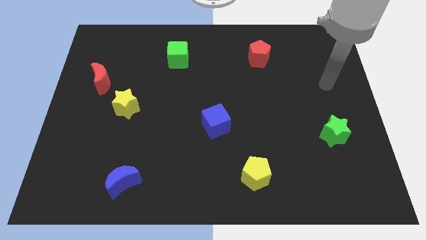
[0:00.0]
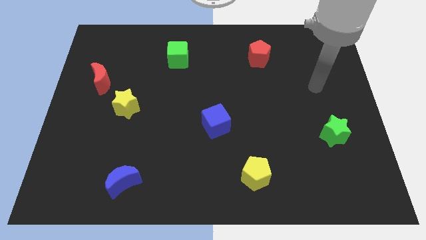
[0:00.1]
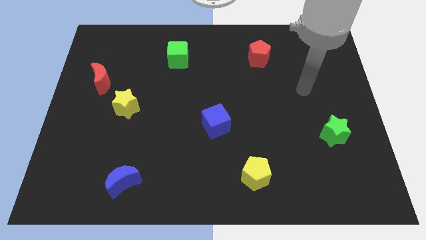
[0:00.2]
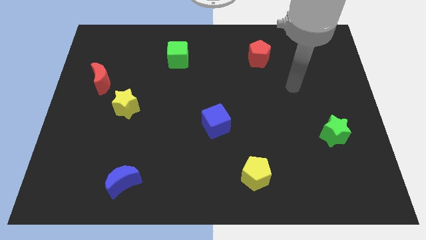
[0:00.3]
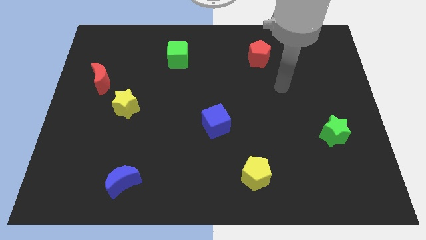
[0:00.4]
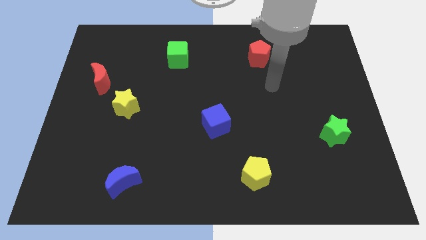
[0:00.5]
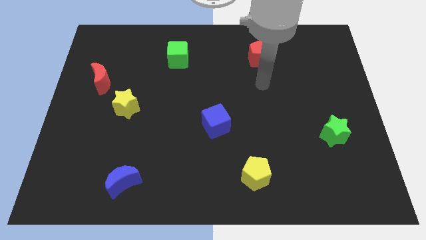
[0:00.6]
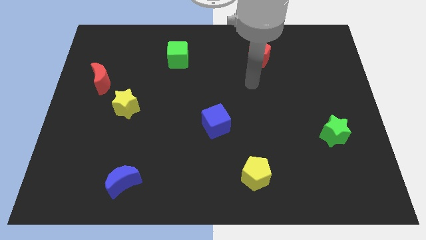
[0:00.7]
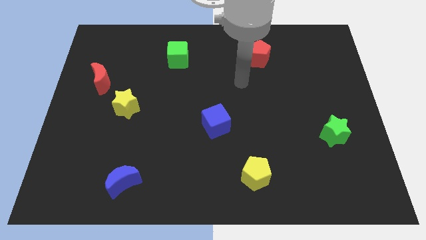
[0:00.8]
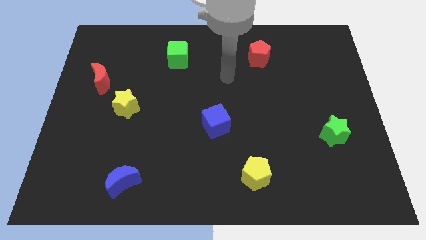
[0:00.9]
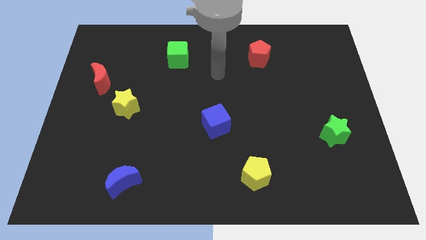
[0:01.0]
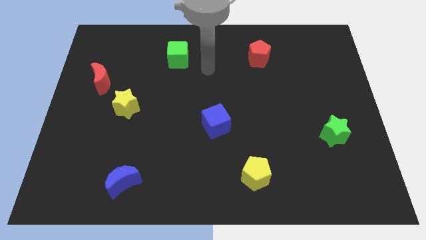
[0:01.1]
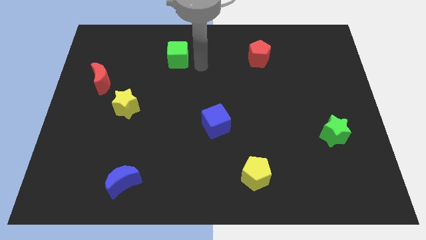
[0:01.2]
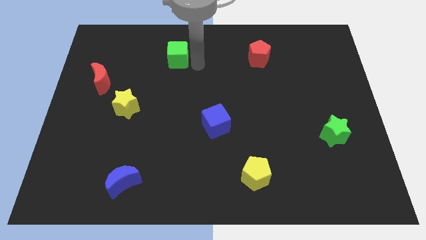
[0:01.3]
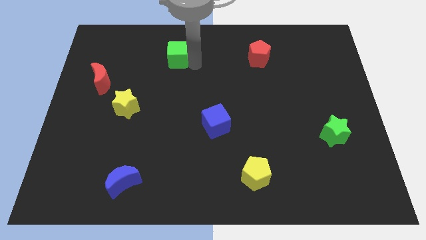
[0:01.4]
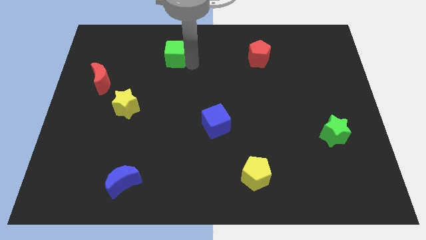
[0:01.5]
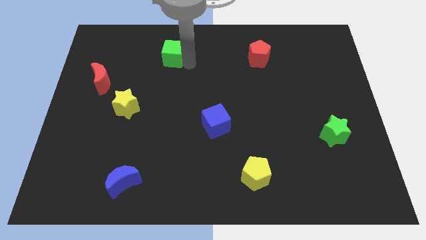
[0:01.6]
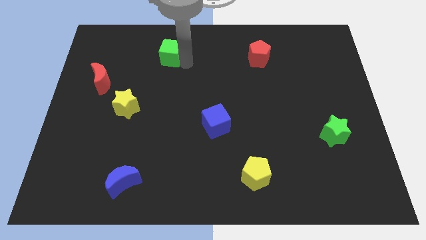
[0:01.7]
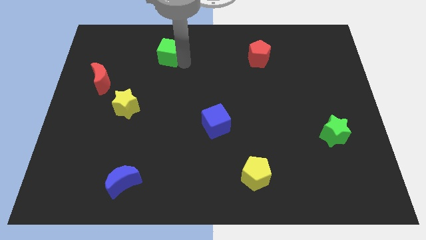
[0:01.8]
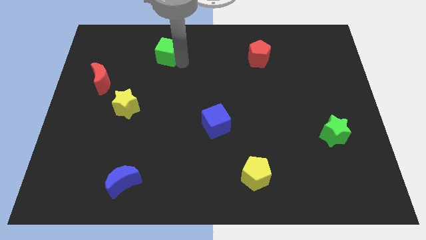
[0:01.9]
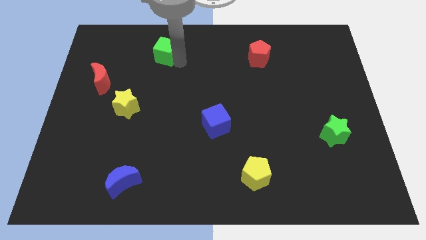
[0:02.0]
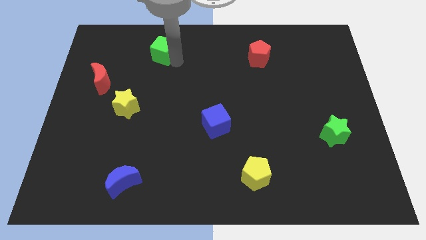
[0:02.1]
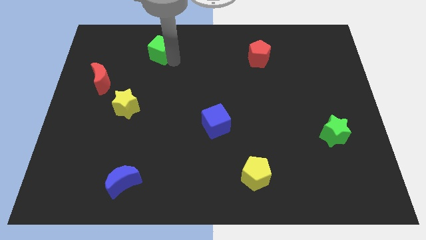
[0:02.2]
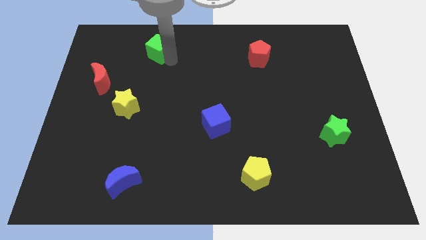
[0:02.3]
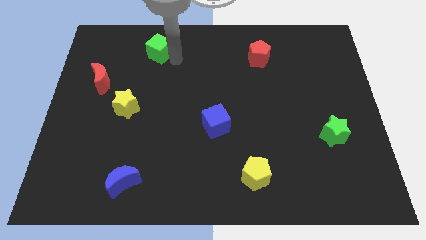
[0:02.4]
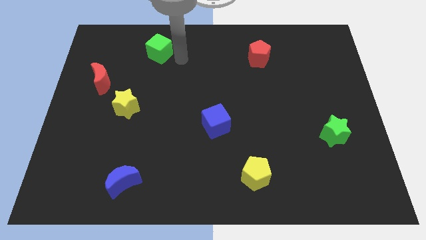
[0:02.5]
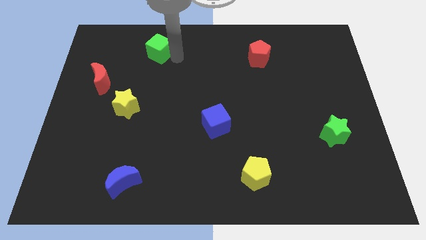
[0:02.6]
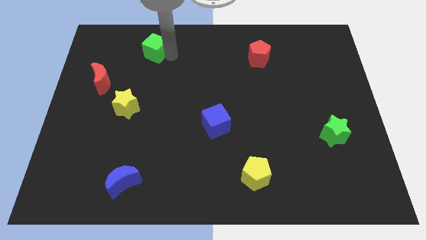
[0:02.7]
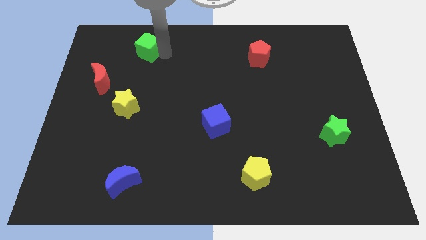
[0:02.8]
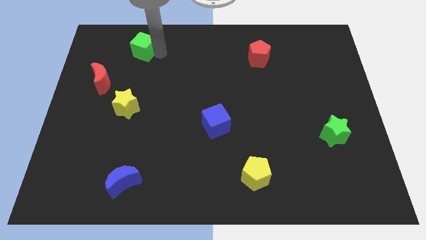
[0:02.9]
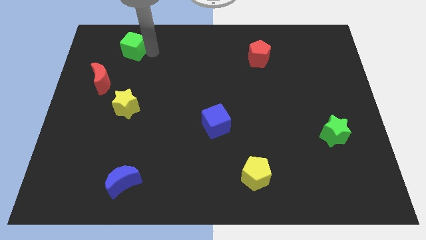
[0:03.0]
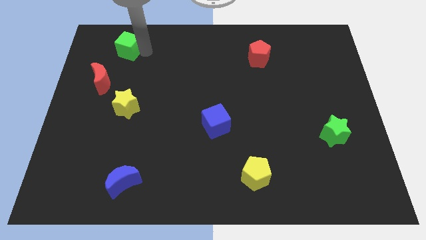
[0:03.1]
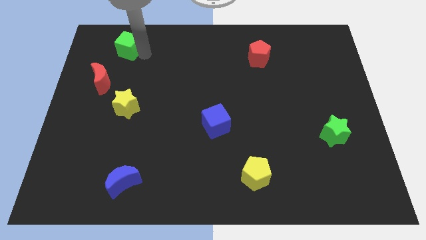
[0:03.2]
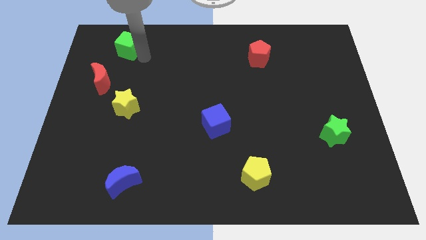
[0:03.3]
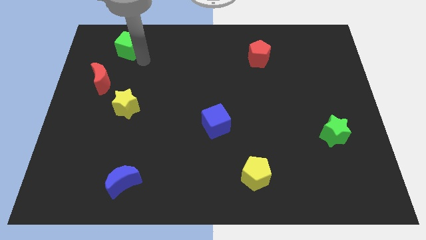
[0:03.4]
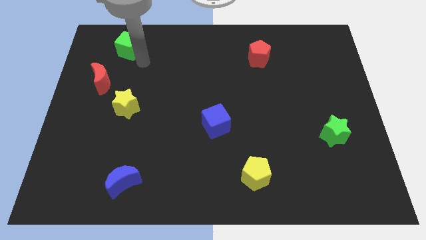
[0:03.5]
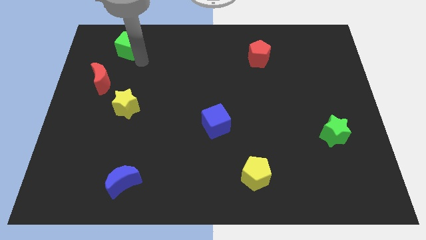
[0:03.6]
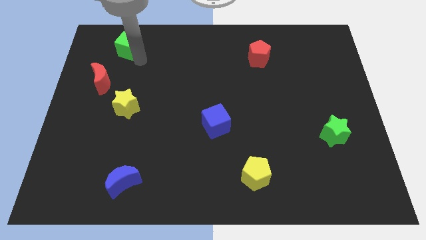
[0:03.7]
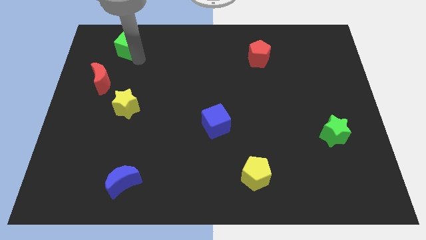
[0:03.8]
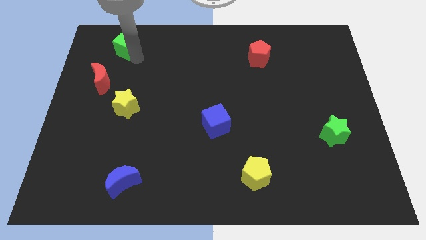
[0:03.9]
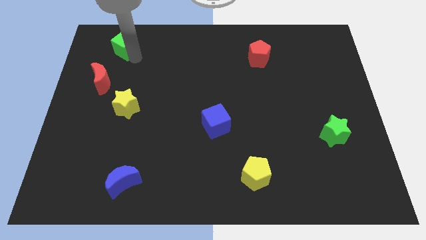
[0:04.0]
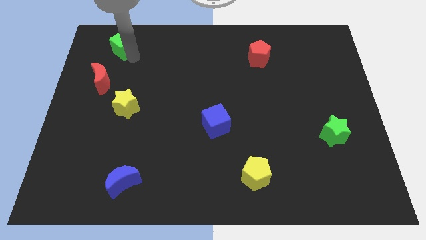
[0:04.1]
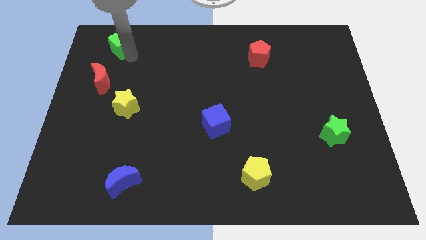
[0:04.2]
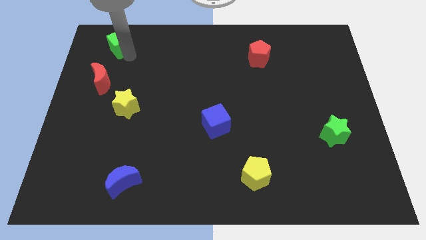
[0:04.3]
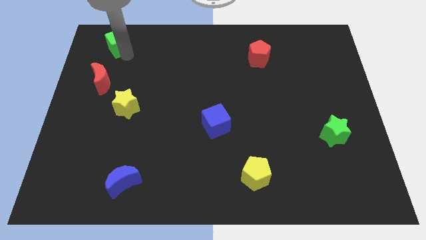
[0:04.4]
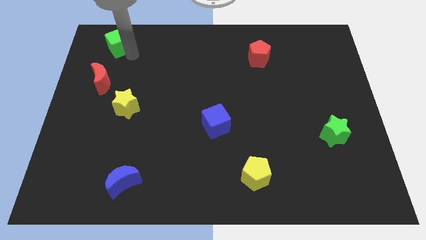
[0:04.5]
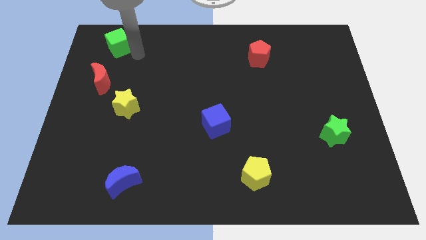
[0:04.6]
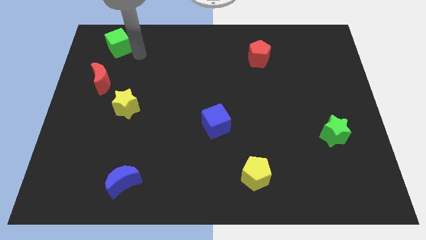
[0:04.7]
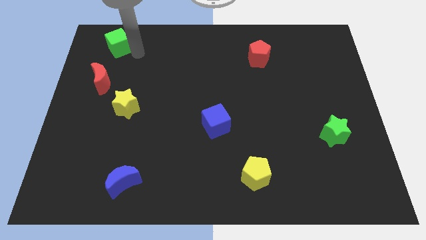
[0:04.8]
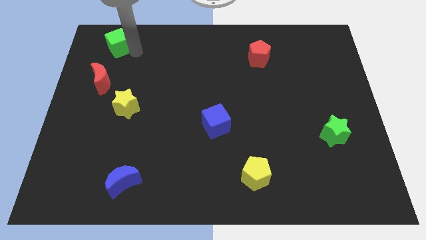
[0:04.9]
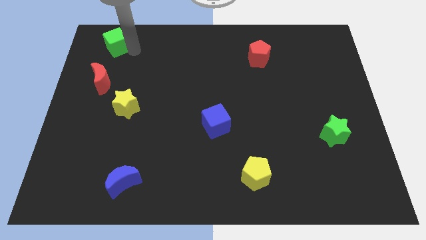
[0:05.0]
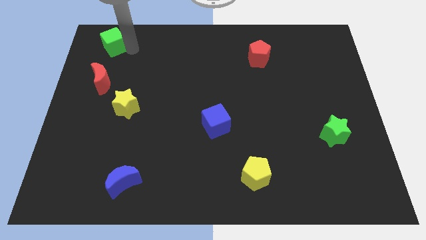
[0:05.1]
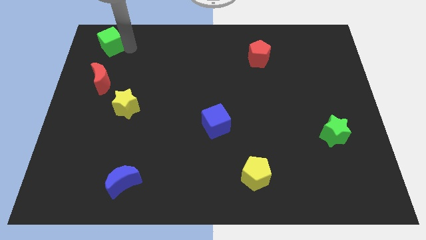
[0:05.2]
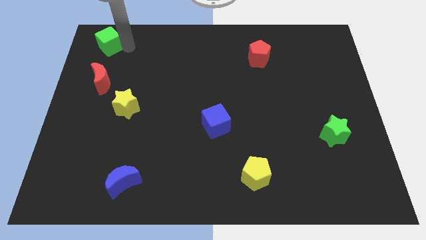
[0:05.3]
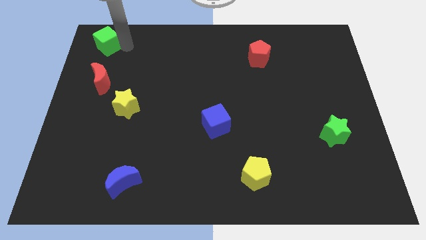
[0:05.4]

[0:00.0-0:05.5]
move the green cube to the top left corner
